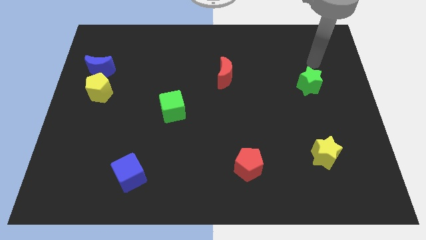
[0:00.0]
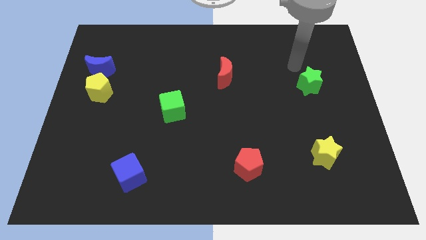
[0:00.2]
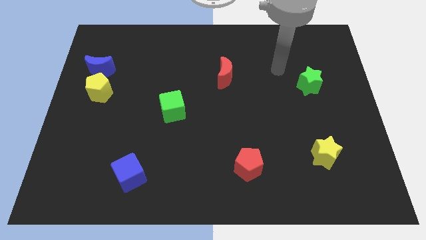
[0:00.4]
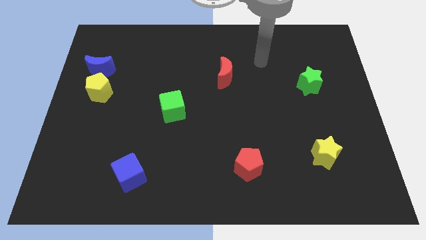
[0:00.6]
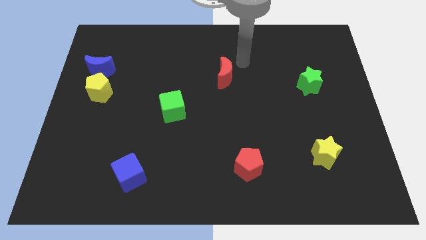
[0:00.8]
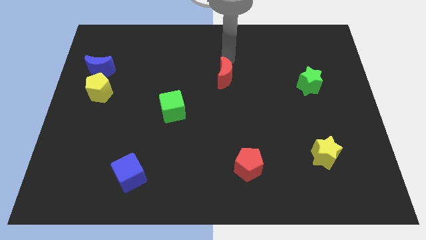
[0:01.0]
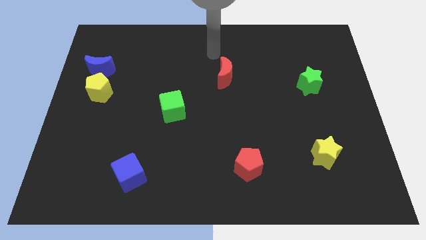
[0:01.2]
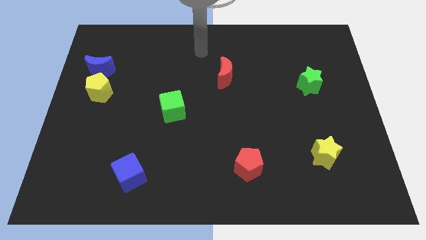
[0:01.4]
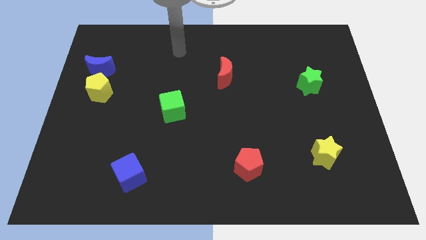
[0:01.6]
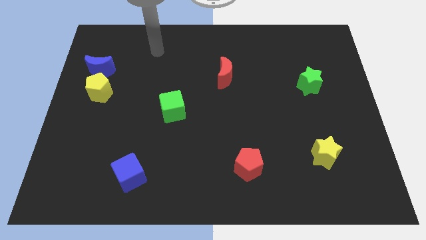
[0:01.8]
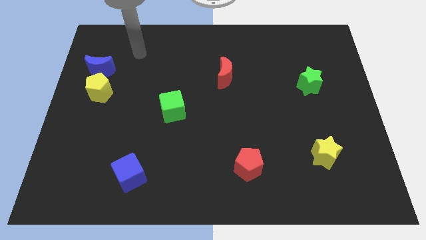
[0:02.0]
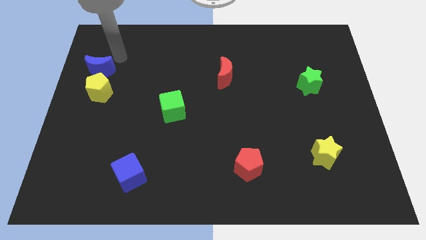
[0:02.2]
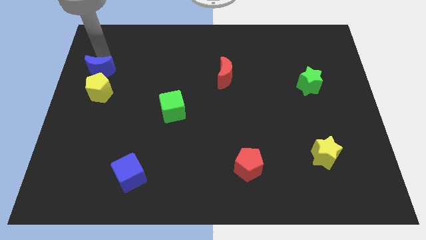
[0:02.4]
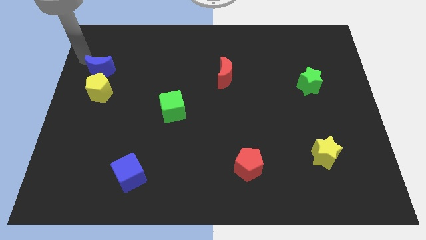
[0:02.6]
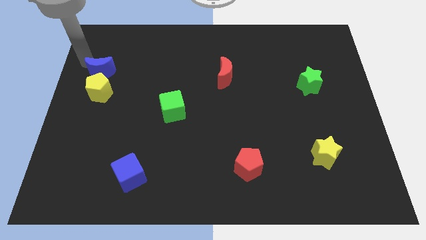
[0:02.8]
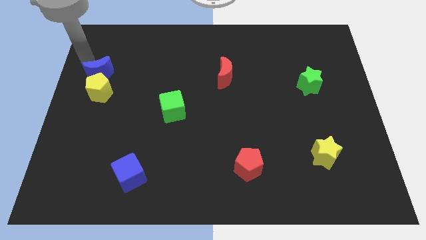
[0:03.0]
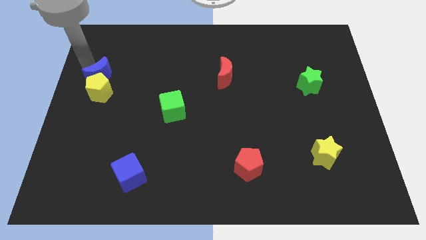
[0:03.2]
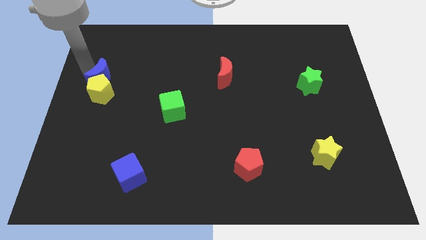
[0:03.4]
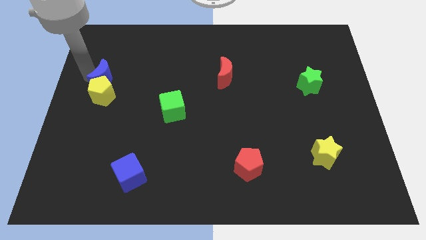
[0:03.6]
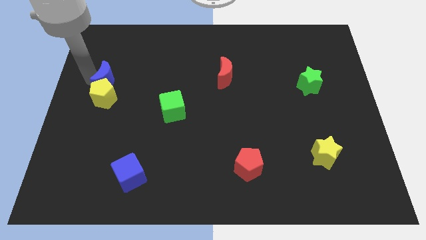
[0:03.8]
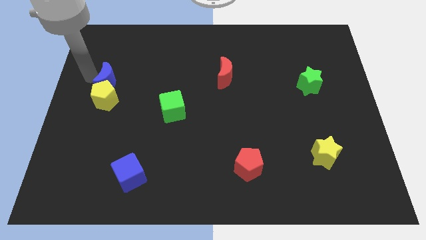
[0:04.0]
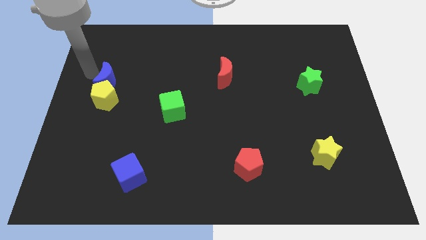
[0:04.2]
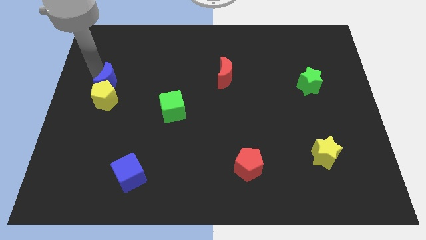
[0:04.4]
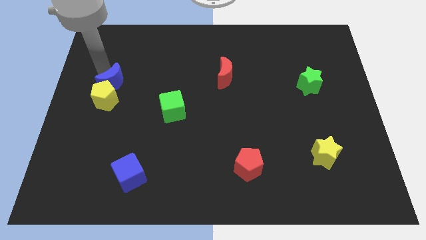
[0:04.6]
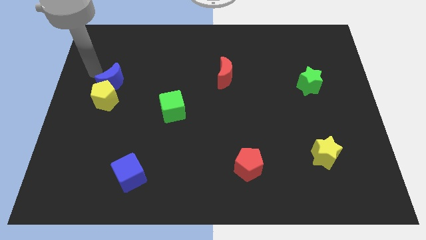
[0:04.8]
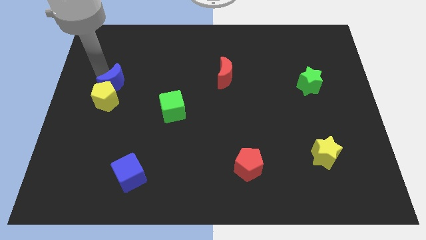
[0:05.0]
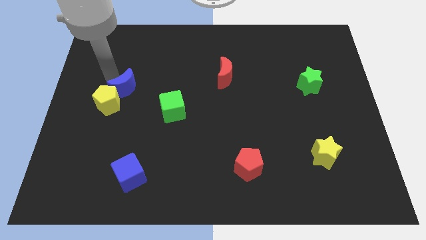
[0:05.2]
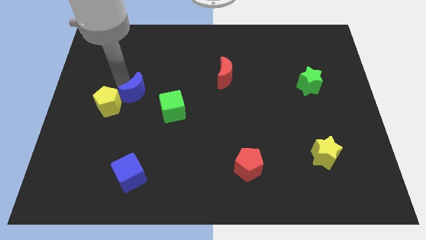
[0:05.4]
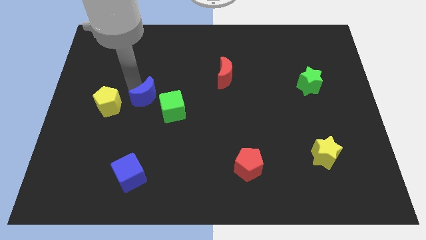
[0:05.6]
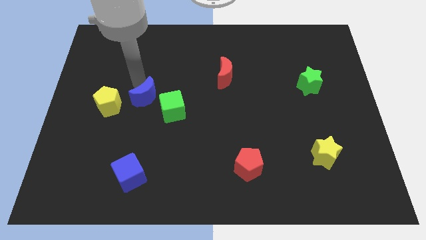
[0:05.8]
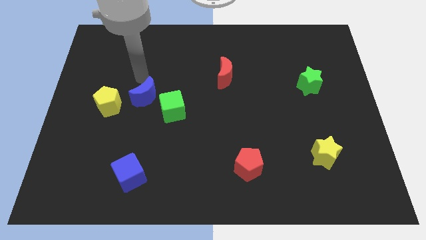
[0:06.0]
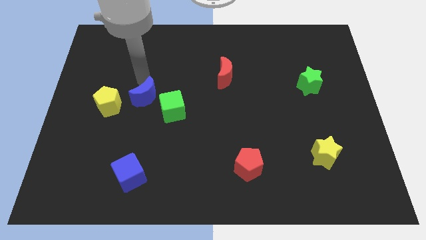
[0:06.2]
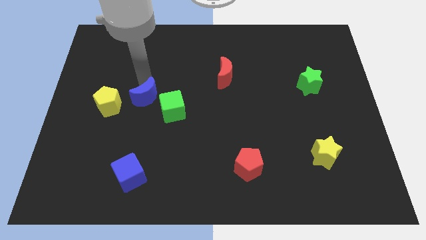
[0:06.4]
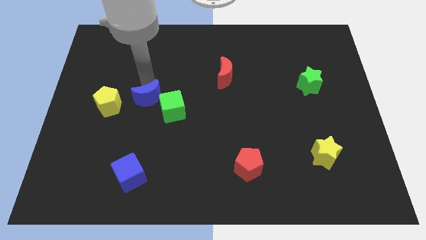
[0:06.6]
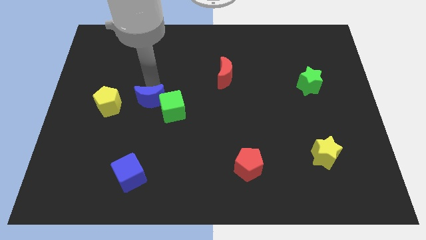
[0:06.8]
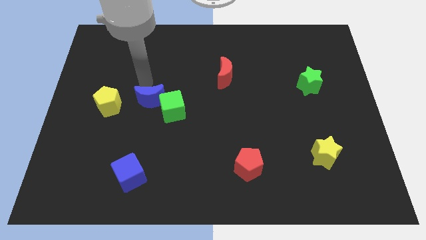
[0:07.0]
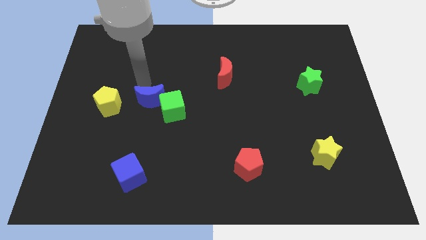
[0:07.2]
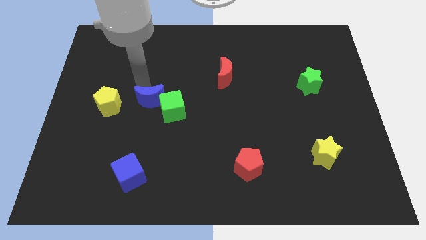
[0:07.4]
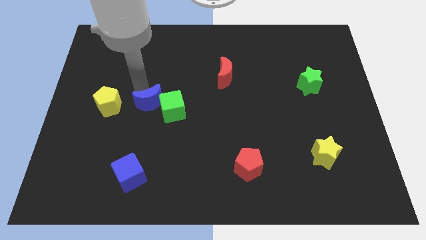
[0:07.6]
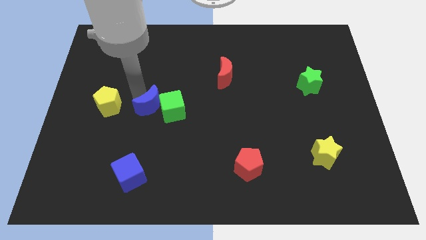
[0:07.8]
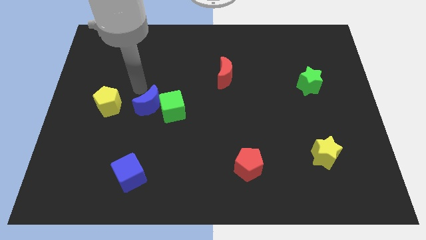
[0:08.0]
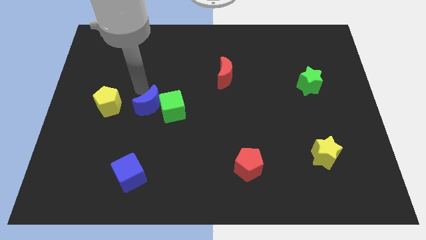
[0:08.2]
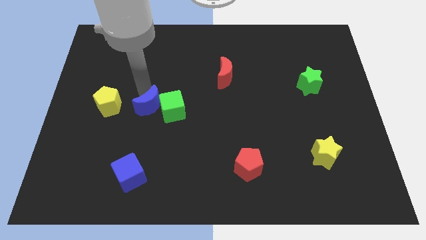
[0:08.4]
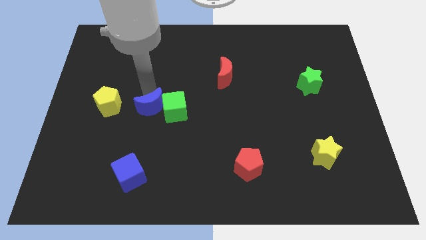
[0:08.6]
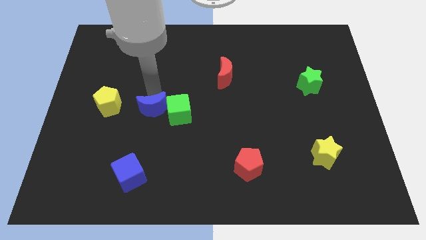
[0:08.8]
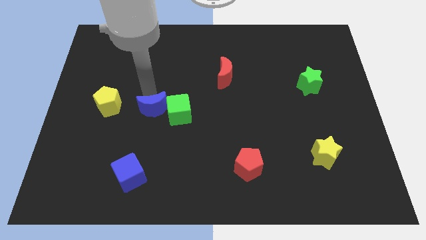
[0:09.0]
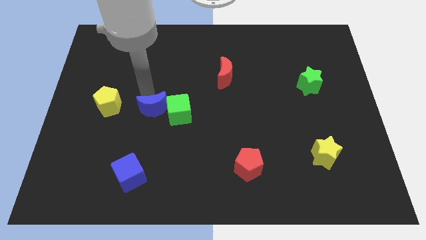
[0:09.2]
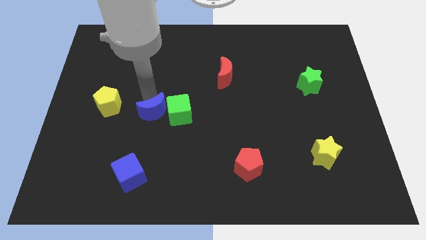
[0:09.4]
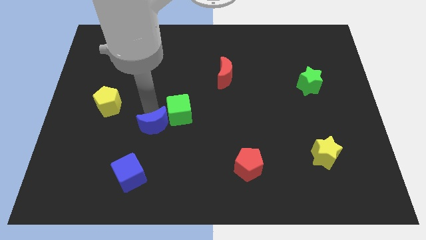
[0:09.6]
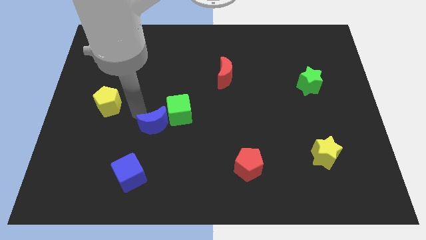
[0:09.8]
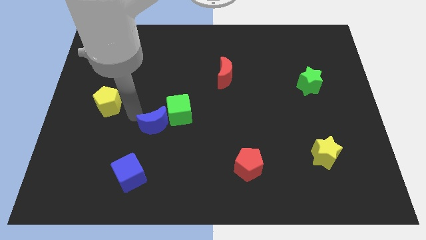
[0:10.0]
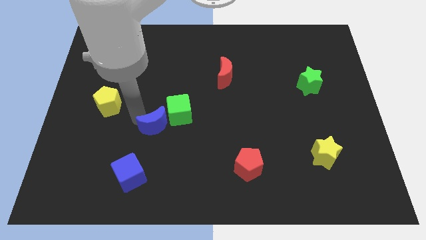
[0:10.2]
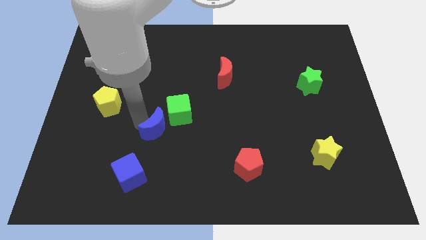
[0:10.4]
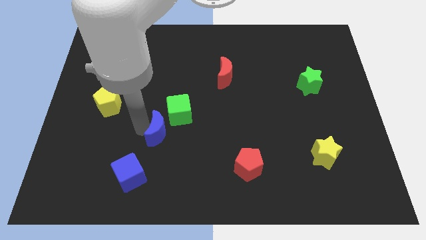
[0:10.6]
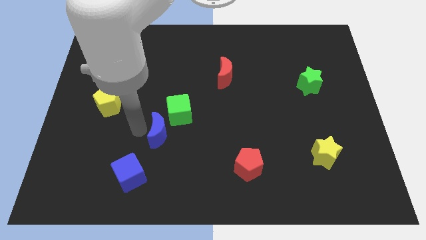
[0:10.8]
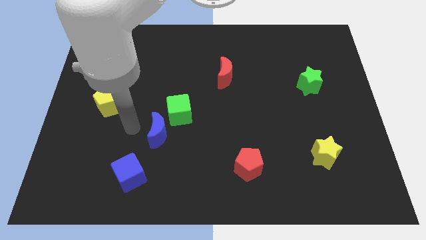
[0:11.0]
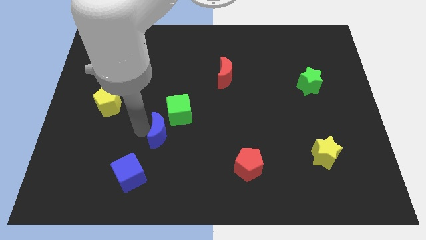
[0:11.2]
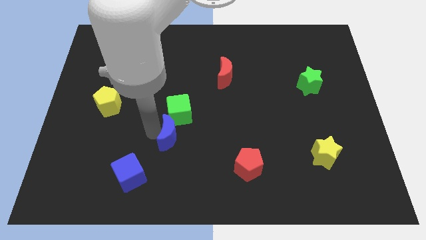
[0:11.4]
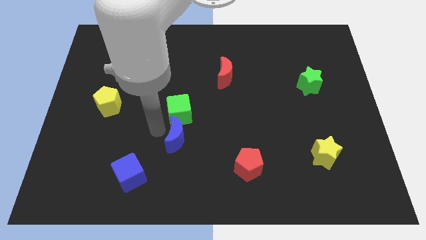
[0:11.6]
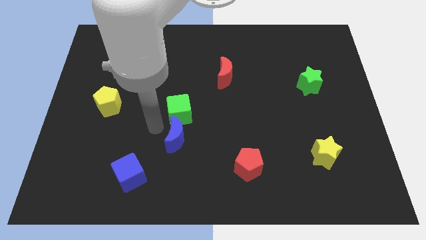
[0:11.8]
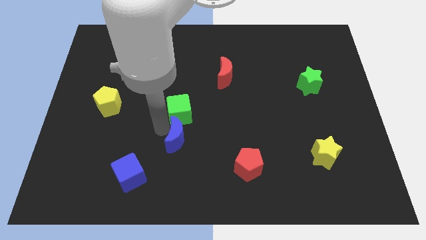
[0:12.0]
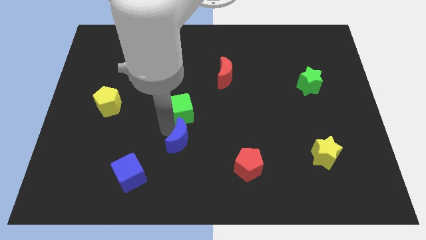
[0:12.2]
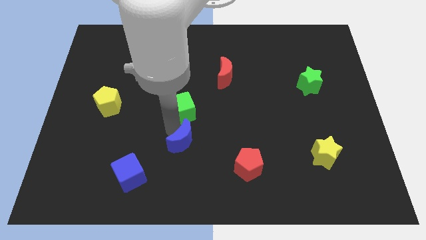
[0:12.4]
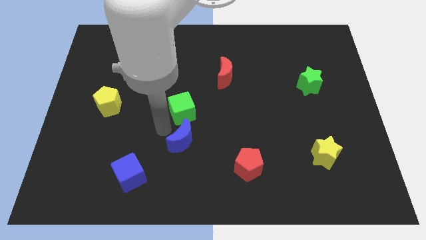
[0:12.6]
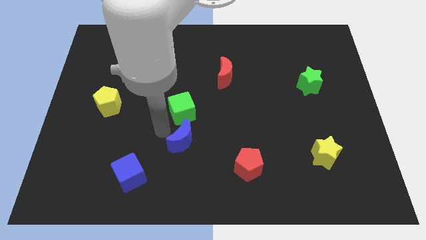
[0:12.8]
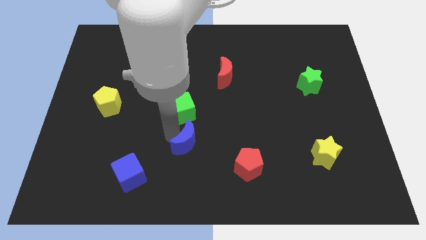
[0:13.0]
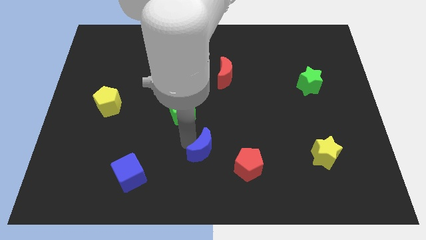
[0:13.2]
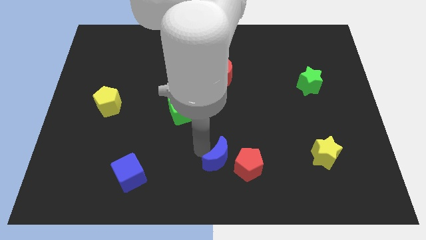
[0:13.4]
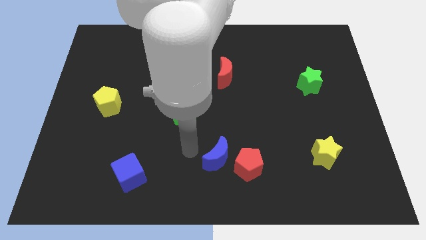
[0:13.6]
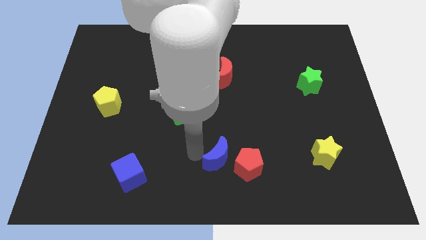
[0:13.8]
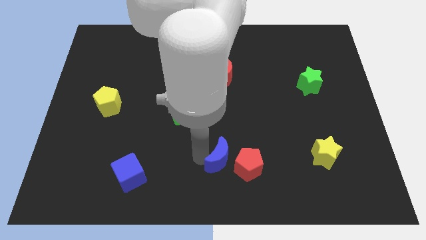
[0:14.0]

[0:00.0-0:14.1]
put the blue moon towards the red pentagon
